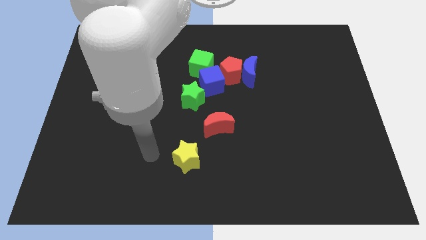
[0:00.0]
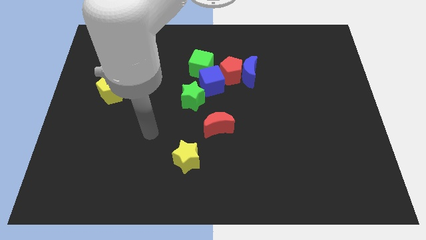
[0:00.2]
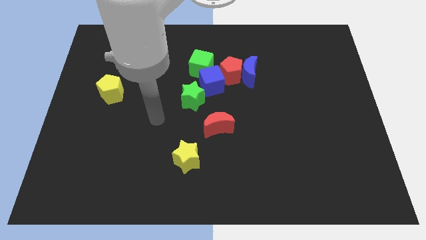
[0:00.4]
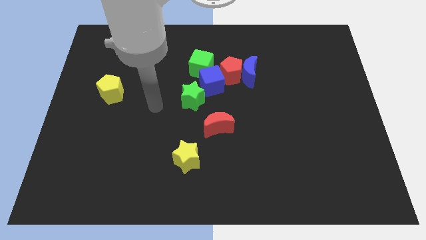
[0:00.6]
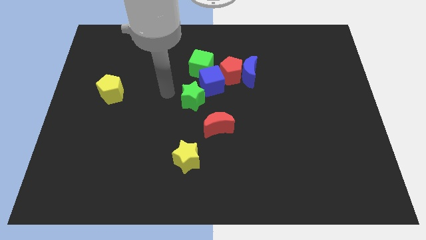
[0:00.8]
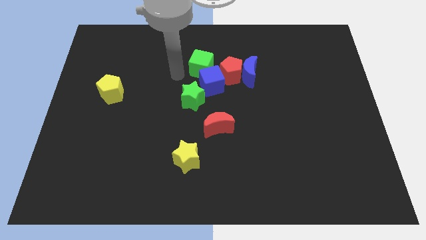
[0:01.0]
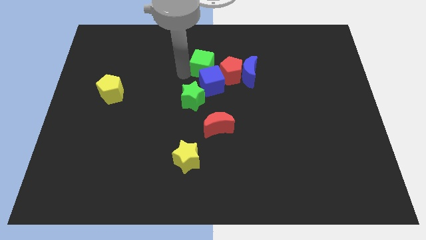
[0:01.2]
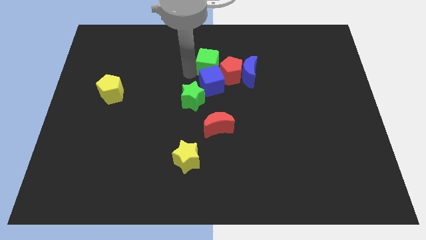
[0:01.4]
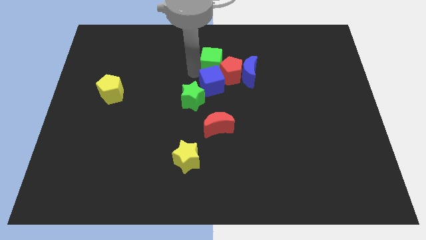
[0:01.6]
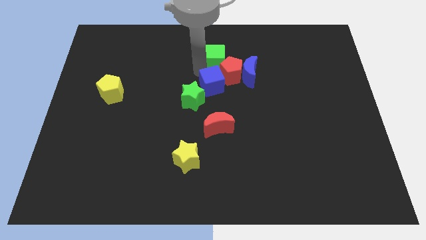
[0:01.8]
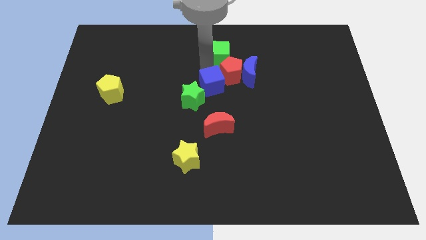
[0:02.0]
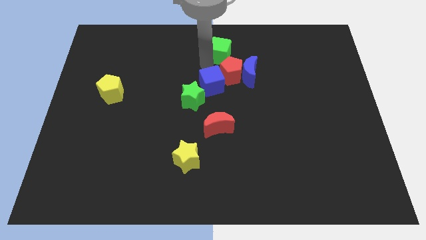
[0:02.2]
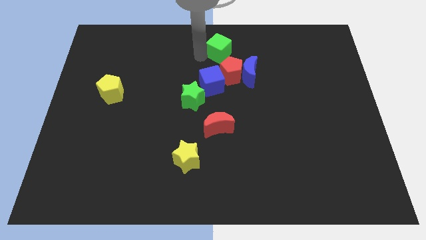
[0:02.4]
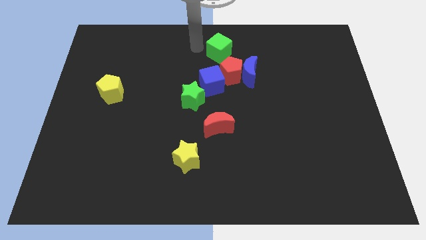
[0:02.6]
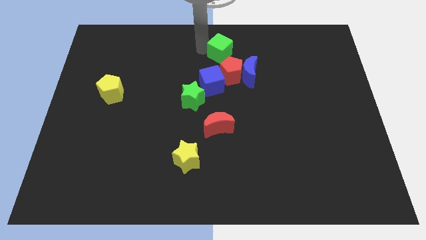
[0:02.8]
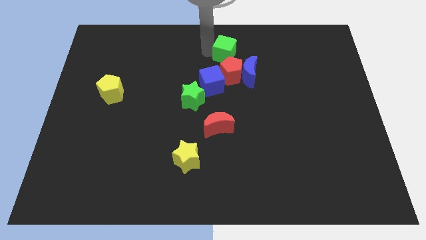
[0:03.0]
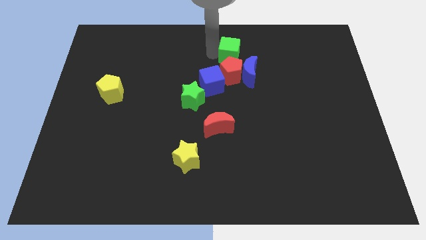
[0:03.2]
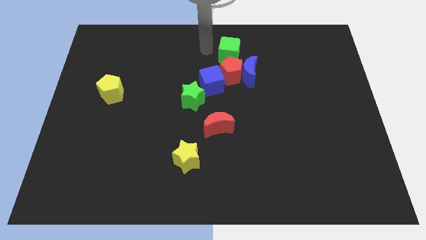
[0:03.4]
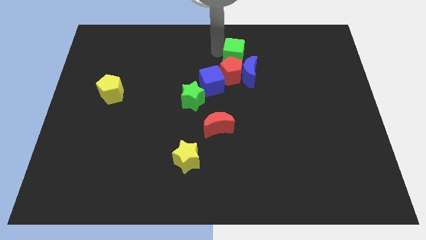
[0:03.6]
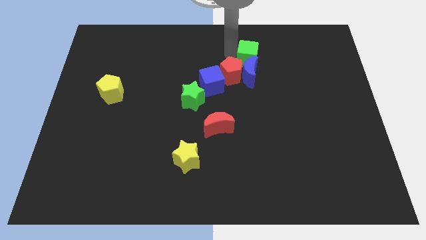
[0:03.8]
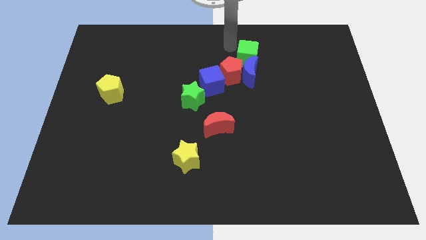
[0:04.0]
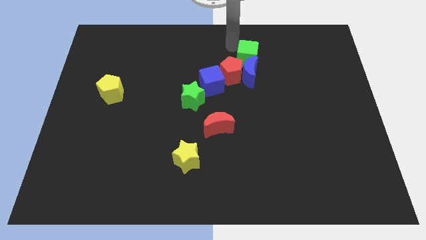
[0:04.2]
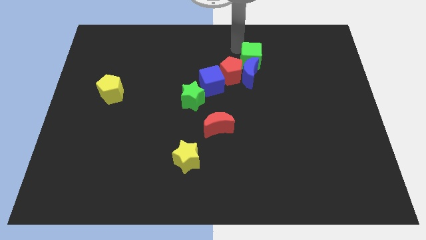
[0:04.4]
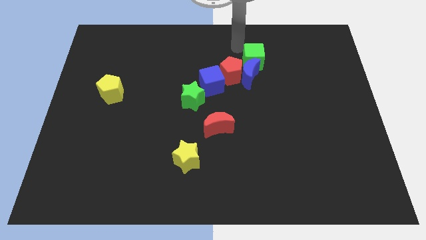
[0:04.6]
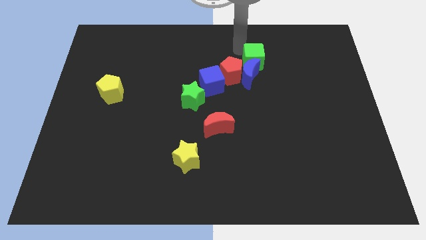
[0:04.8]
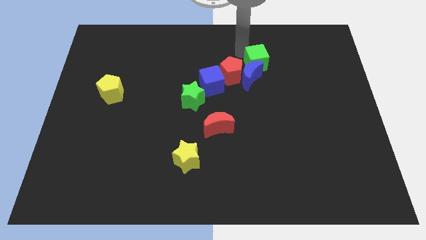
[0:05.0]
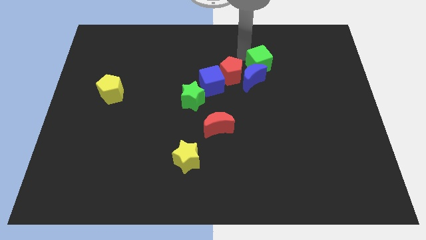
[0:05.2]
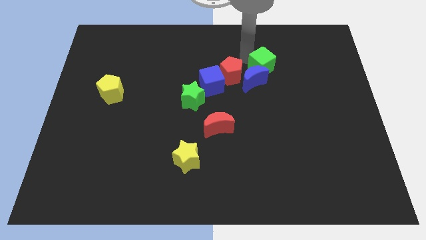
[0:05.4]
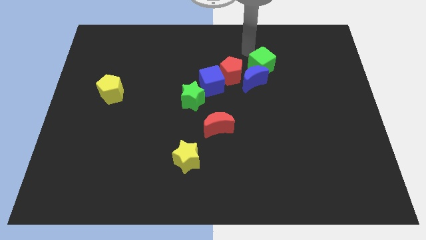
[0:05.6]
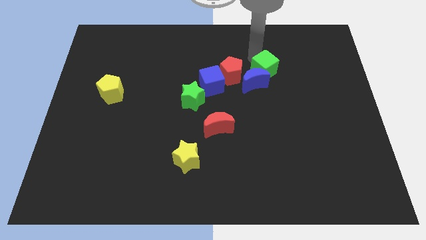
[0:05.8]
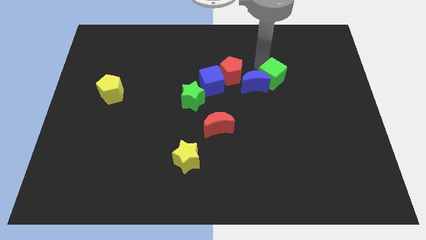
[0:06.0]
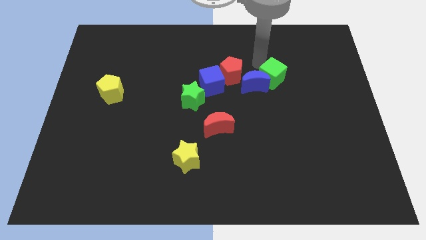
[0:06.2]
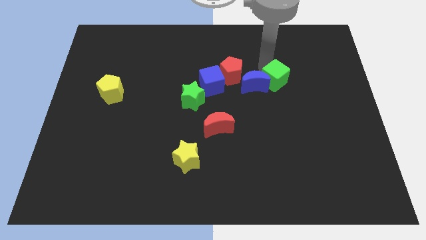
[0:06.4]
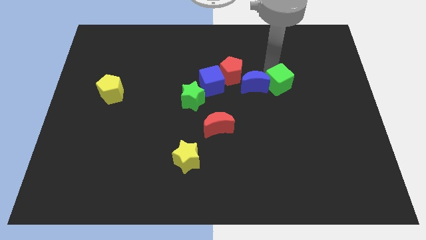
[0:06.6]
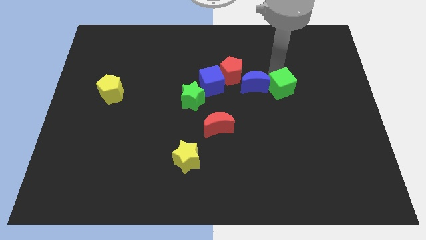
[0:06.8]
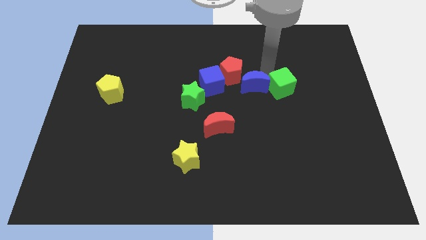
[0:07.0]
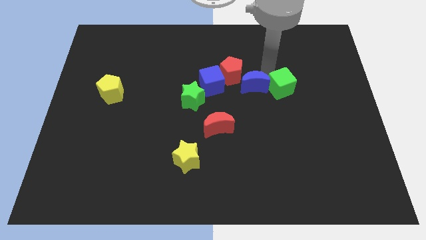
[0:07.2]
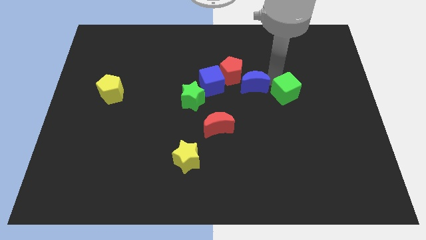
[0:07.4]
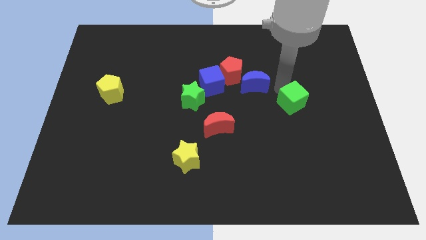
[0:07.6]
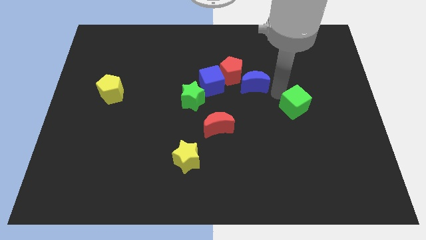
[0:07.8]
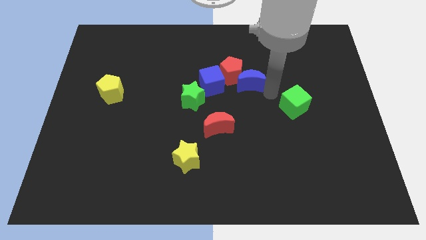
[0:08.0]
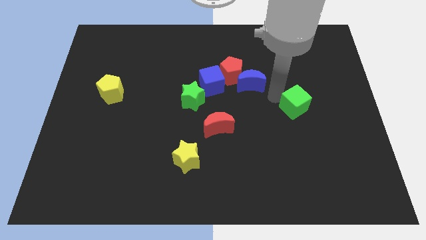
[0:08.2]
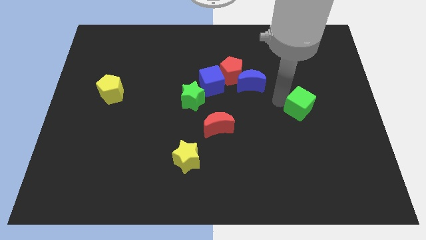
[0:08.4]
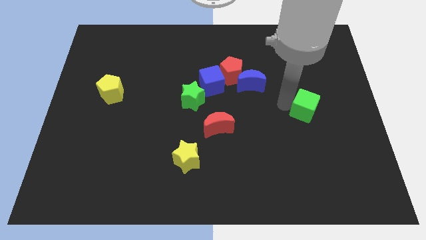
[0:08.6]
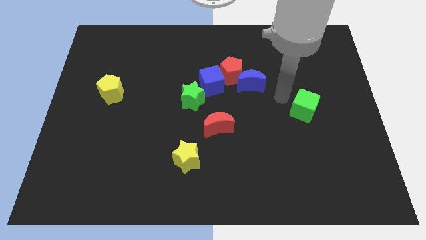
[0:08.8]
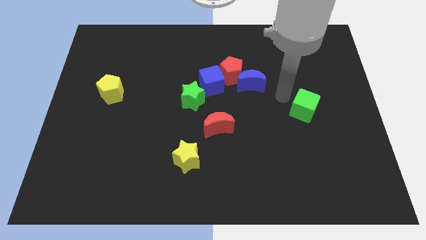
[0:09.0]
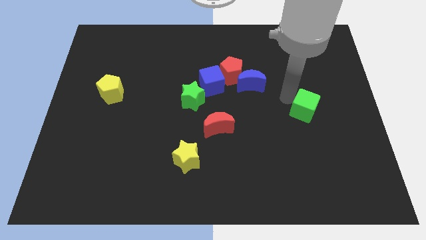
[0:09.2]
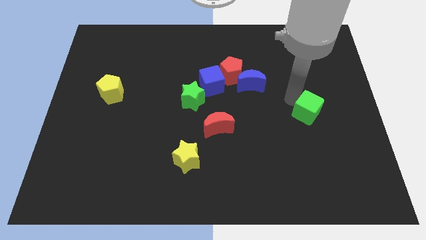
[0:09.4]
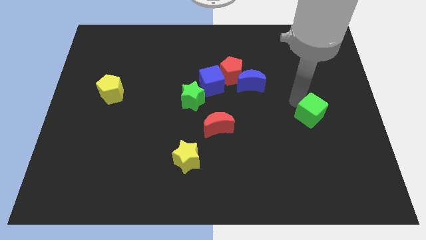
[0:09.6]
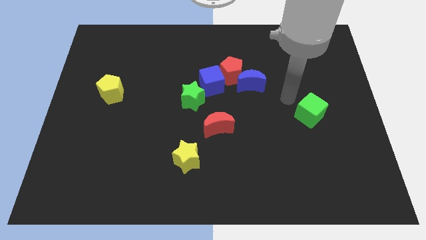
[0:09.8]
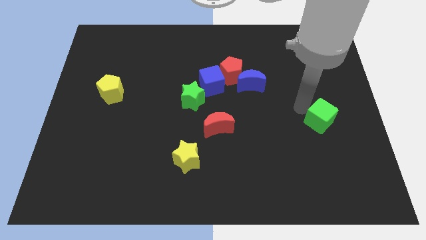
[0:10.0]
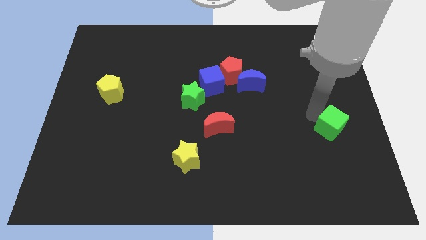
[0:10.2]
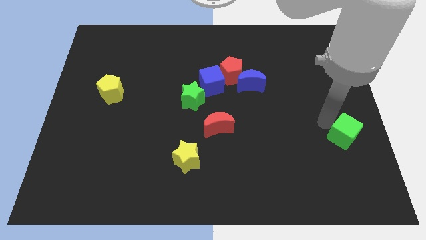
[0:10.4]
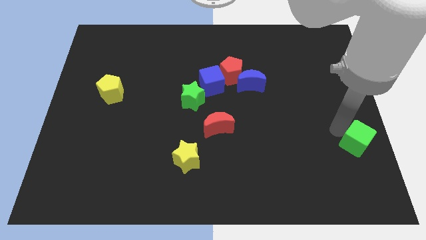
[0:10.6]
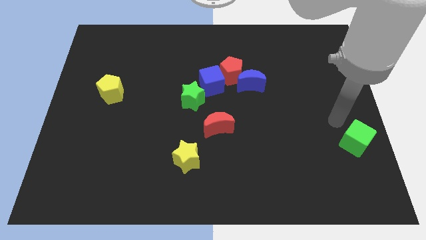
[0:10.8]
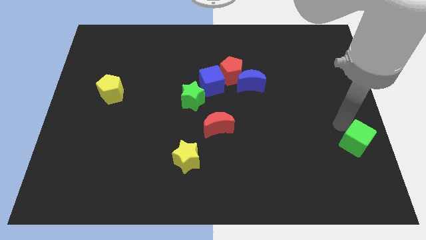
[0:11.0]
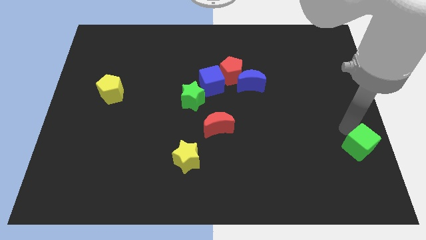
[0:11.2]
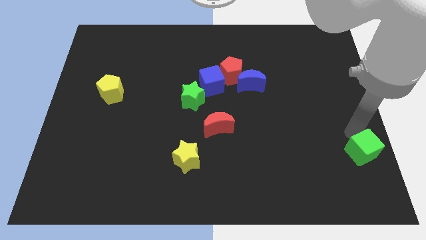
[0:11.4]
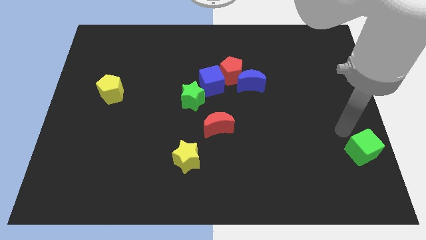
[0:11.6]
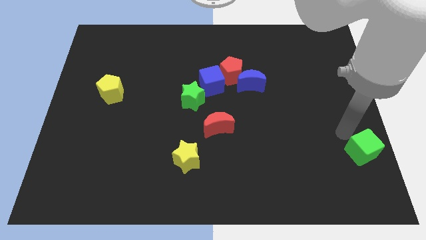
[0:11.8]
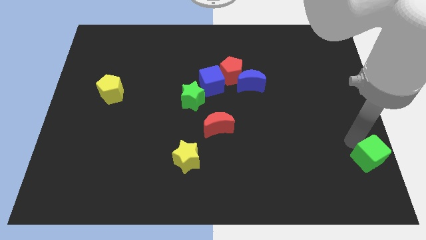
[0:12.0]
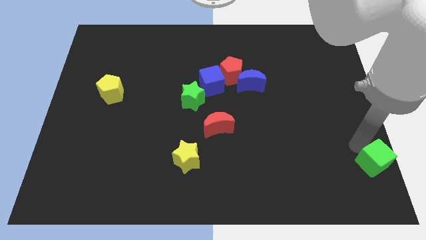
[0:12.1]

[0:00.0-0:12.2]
move the green cube to the lower right corner
